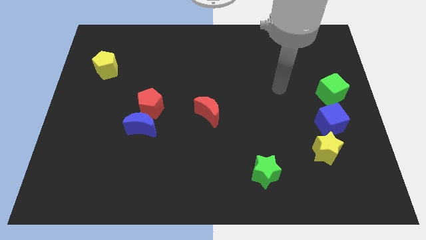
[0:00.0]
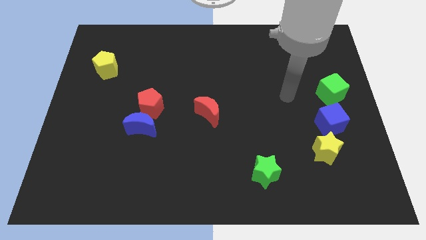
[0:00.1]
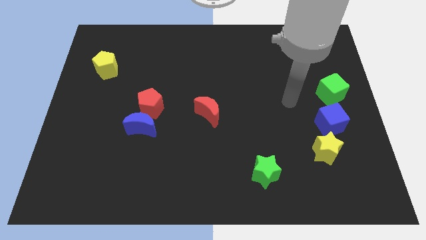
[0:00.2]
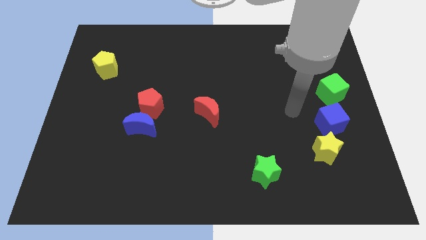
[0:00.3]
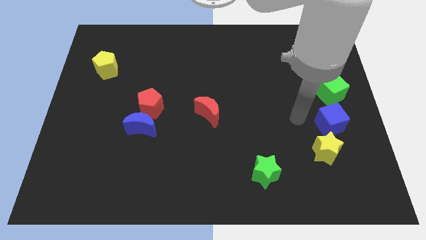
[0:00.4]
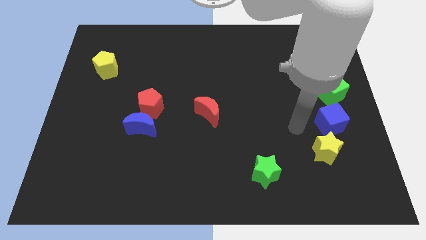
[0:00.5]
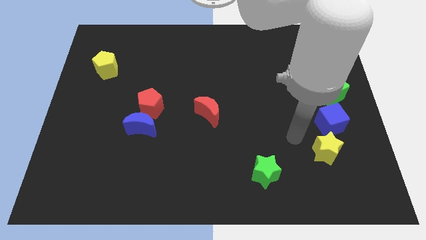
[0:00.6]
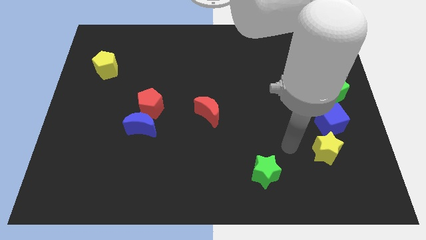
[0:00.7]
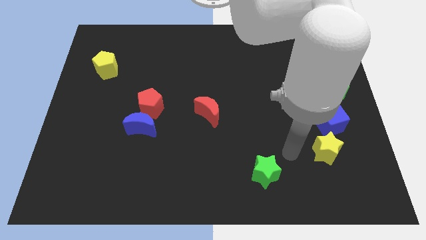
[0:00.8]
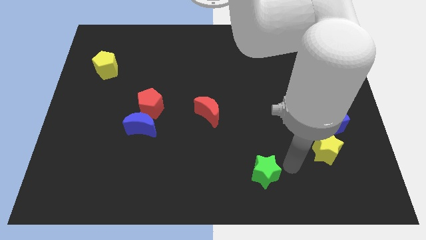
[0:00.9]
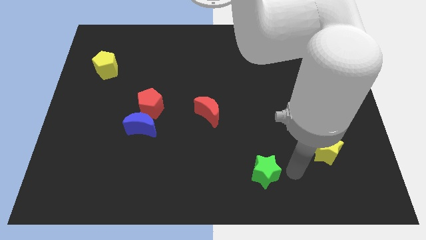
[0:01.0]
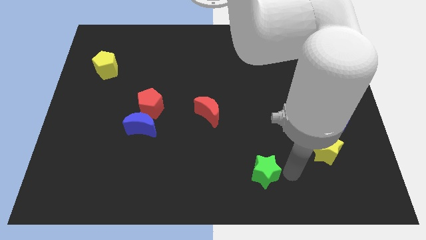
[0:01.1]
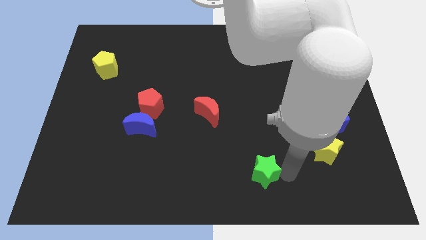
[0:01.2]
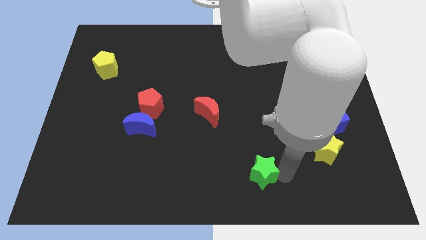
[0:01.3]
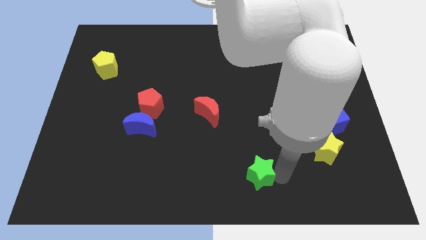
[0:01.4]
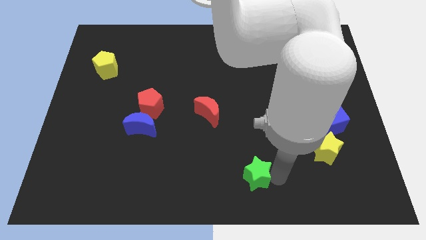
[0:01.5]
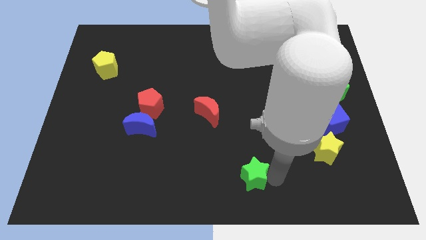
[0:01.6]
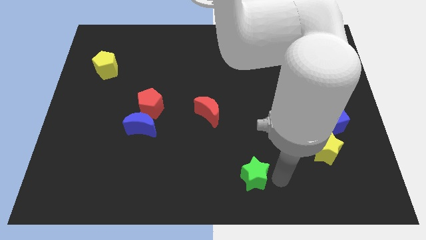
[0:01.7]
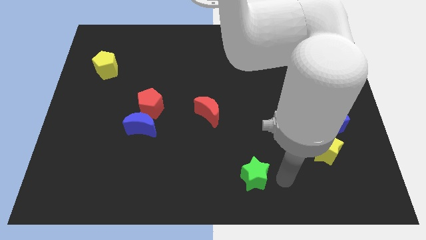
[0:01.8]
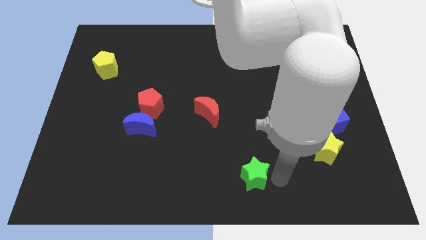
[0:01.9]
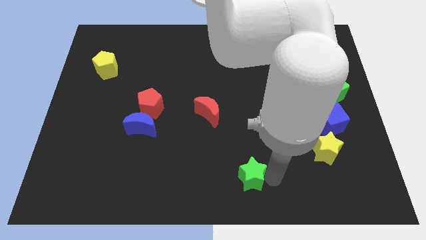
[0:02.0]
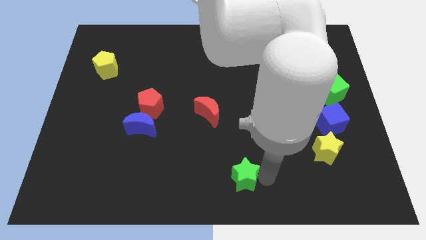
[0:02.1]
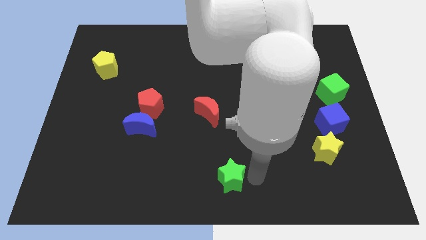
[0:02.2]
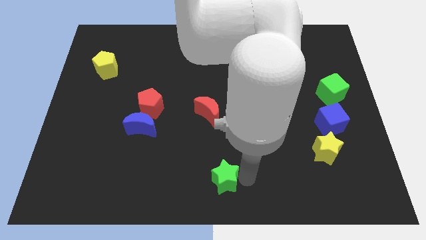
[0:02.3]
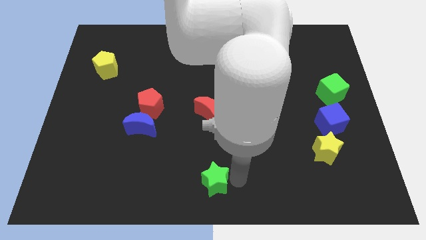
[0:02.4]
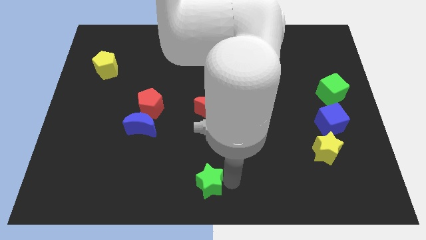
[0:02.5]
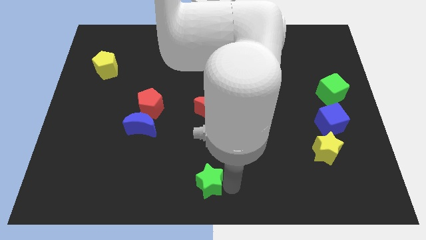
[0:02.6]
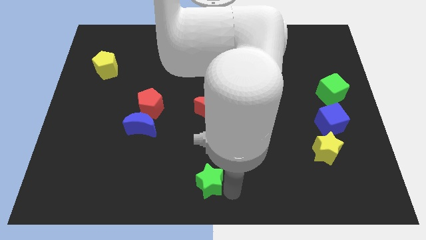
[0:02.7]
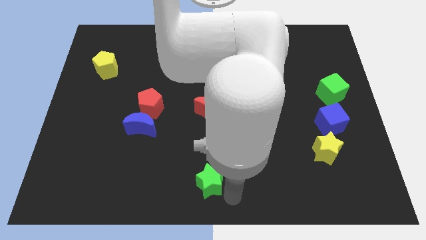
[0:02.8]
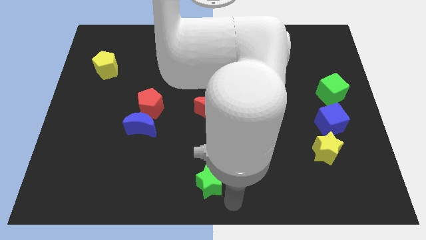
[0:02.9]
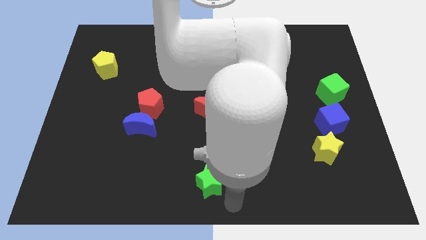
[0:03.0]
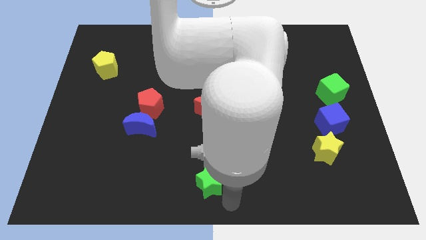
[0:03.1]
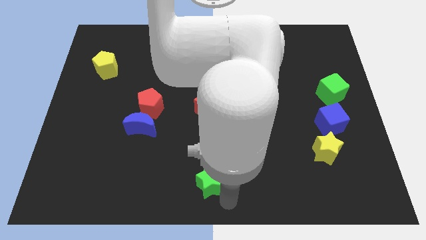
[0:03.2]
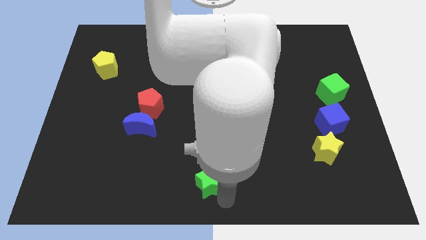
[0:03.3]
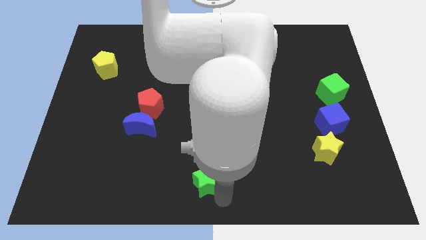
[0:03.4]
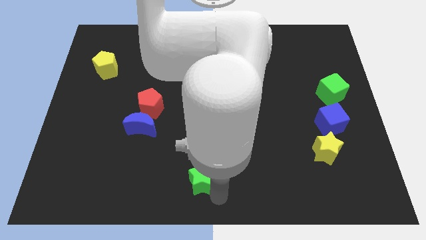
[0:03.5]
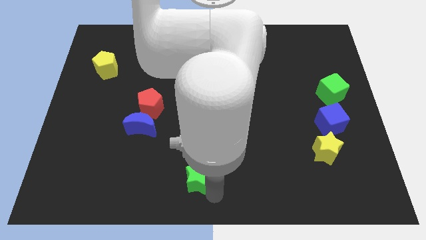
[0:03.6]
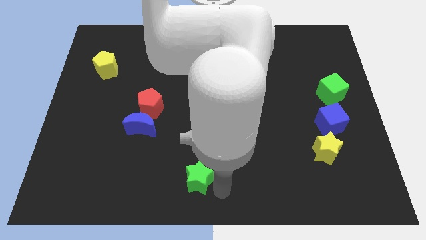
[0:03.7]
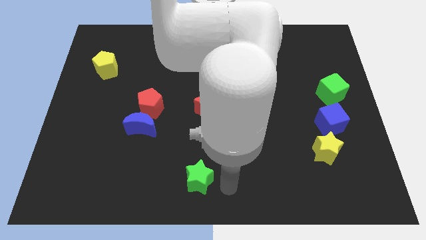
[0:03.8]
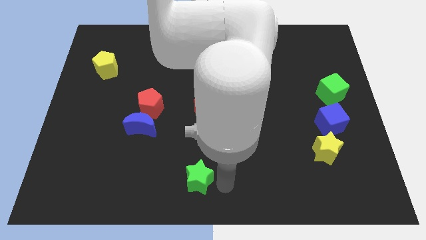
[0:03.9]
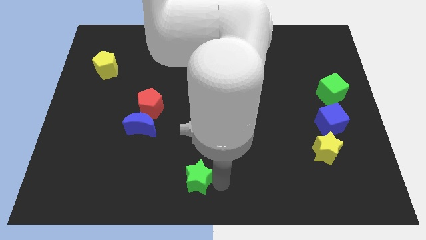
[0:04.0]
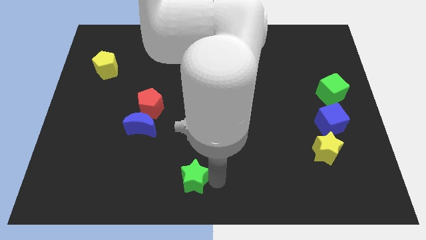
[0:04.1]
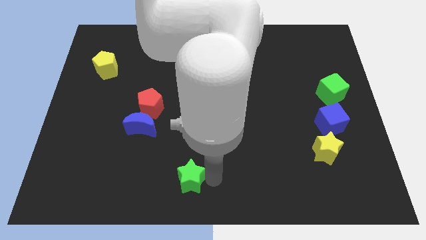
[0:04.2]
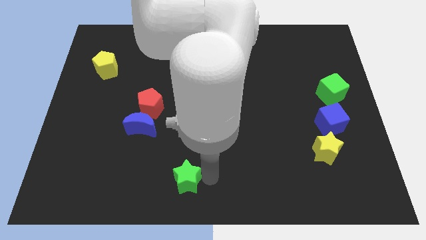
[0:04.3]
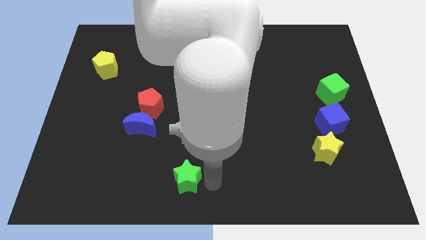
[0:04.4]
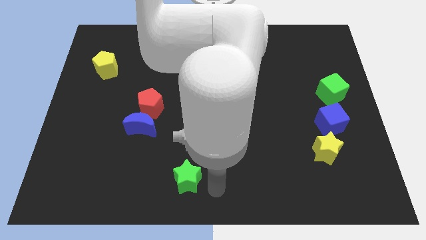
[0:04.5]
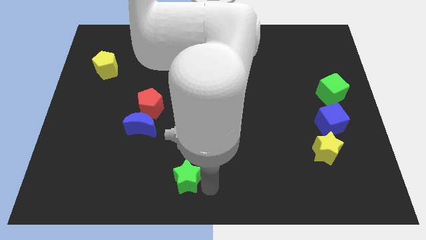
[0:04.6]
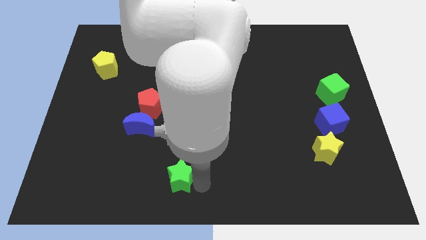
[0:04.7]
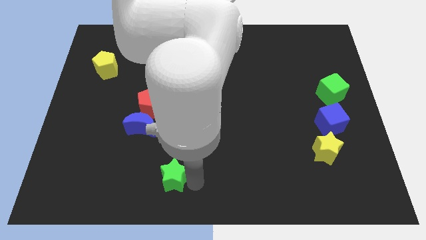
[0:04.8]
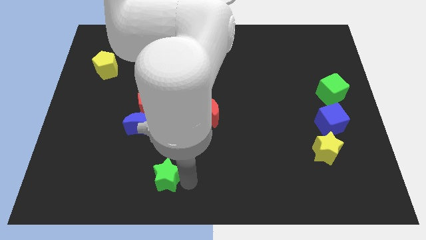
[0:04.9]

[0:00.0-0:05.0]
slide the green star left

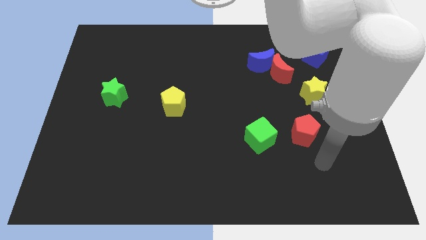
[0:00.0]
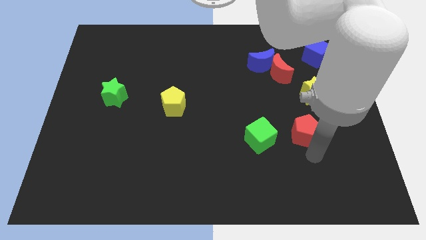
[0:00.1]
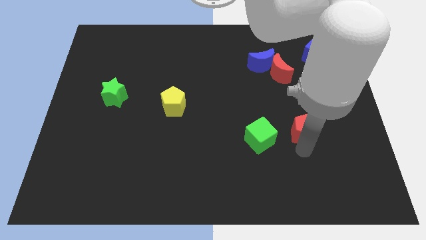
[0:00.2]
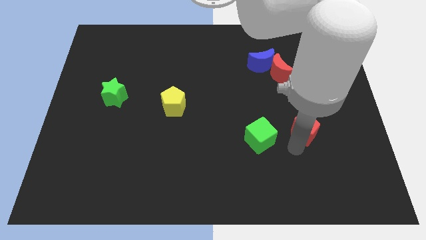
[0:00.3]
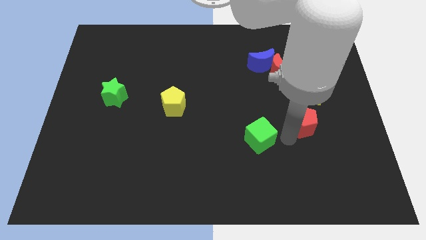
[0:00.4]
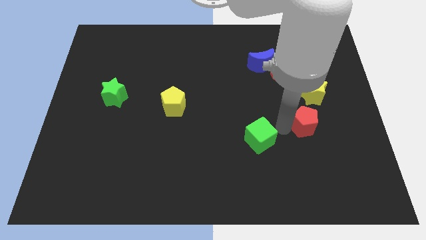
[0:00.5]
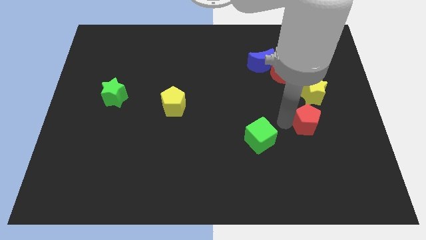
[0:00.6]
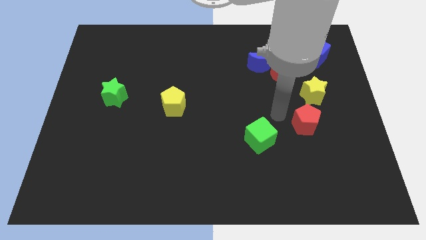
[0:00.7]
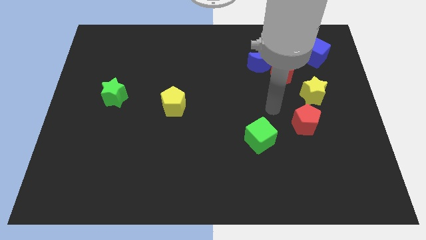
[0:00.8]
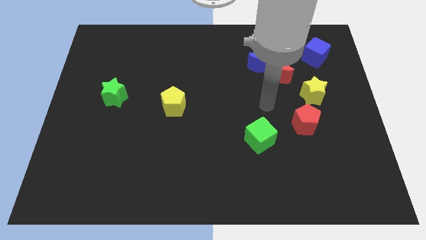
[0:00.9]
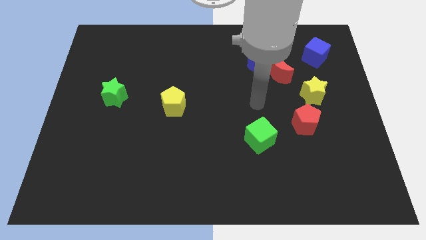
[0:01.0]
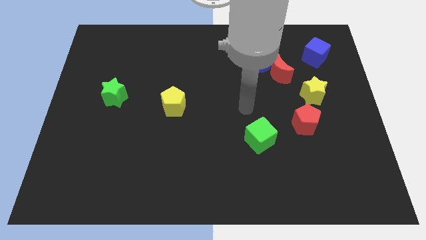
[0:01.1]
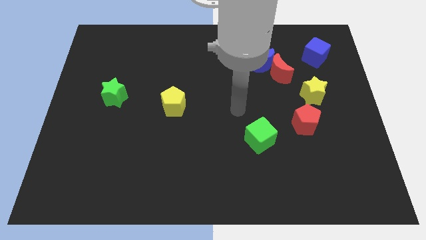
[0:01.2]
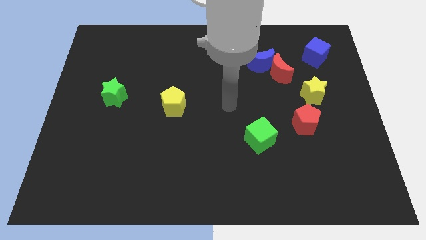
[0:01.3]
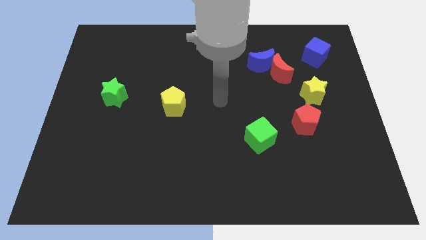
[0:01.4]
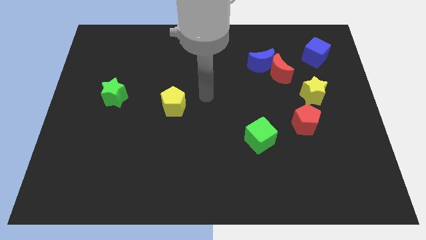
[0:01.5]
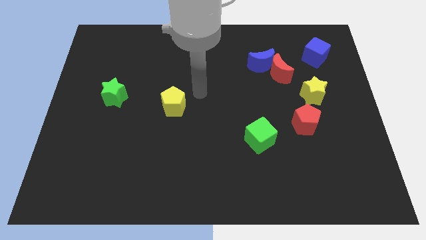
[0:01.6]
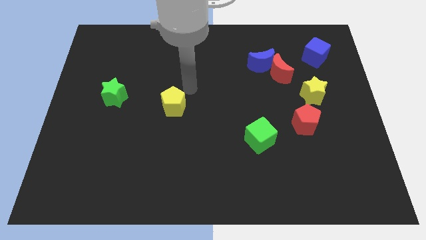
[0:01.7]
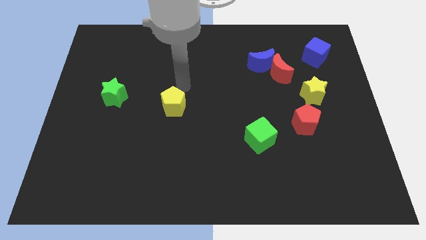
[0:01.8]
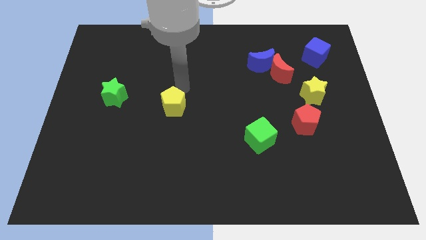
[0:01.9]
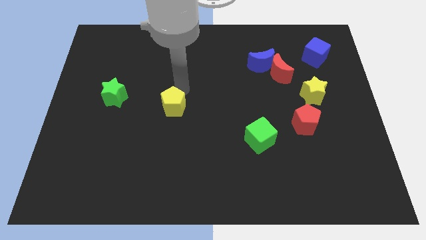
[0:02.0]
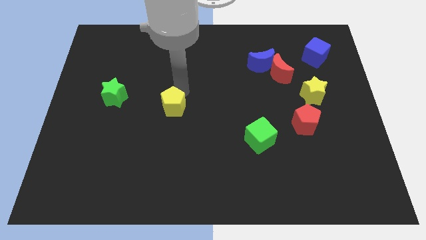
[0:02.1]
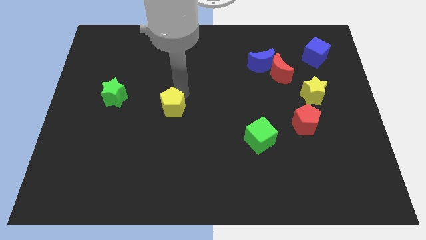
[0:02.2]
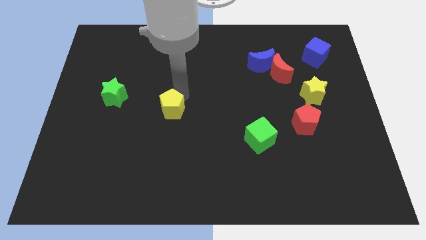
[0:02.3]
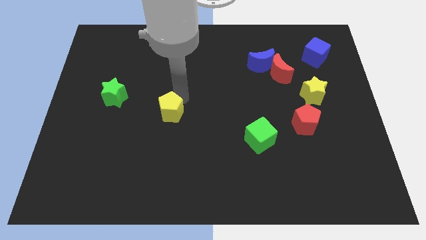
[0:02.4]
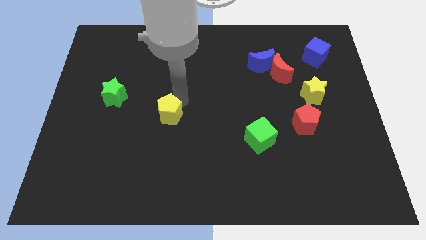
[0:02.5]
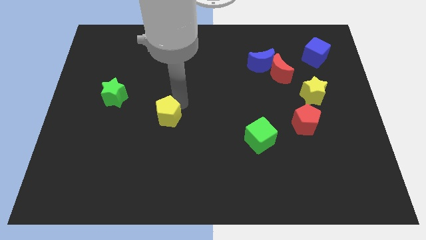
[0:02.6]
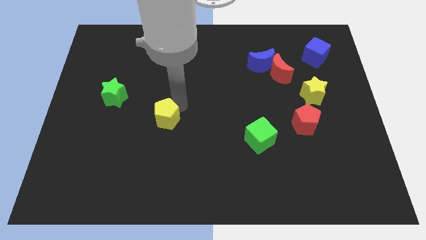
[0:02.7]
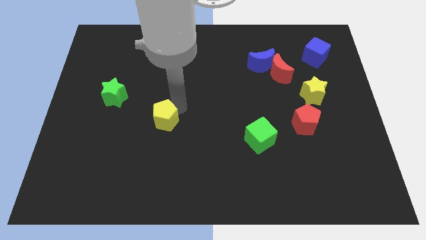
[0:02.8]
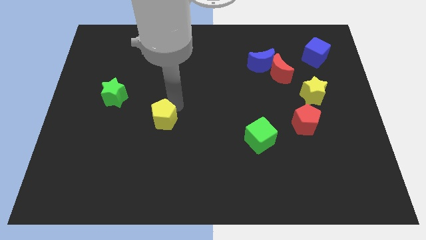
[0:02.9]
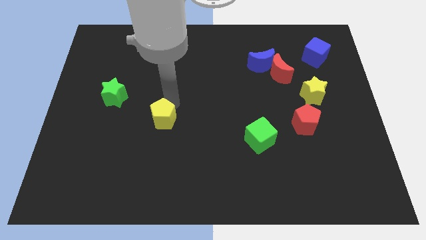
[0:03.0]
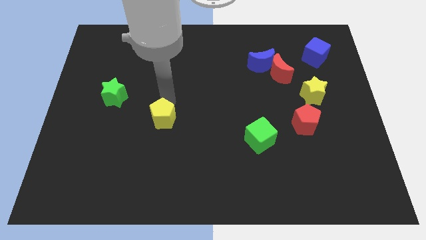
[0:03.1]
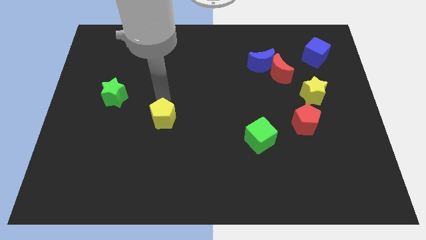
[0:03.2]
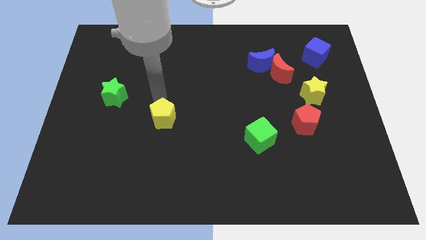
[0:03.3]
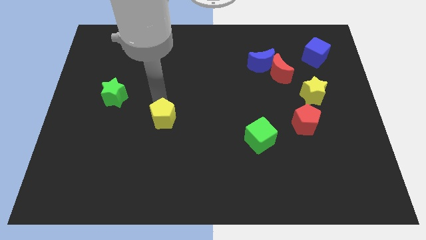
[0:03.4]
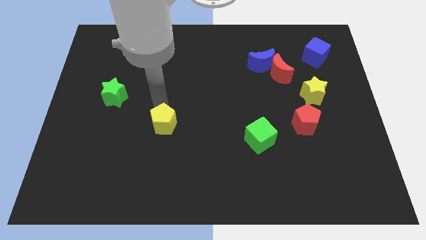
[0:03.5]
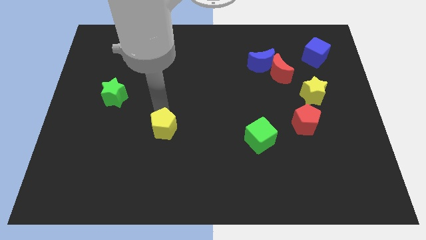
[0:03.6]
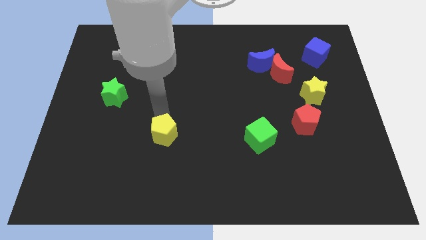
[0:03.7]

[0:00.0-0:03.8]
push the yellow pentagon downwards somewhat
